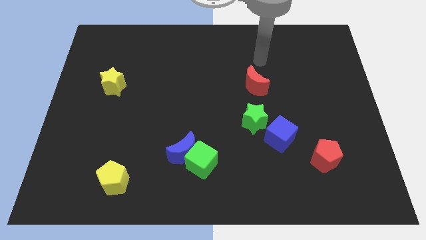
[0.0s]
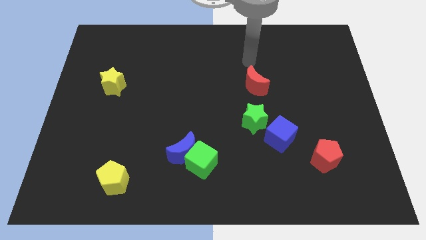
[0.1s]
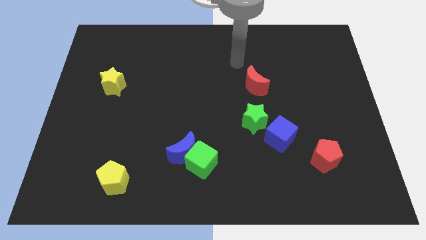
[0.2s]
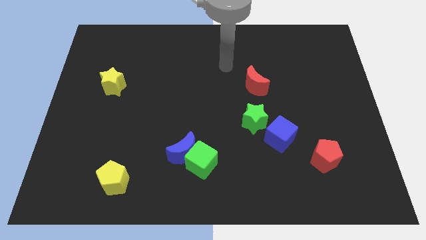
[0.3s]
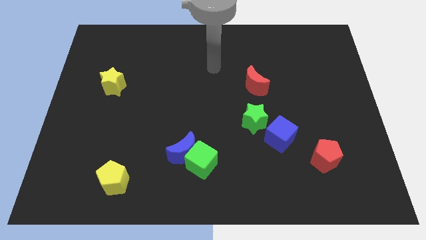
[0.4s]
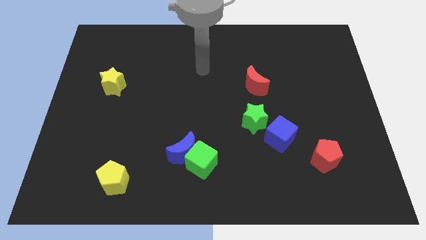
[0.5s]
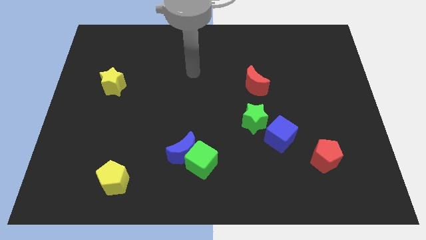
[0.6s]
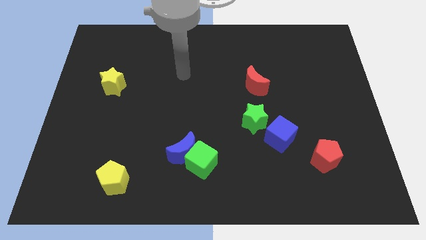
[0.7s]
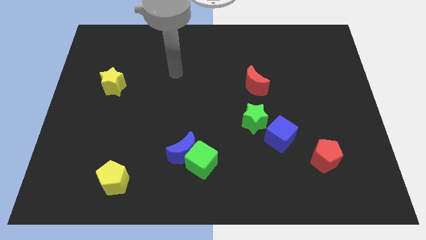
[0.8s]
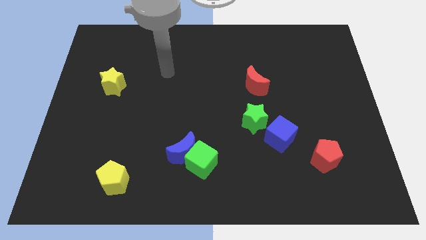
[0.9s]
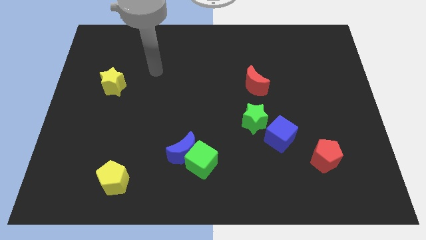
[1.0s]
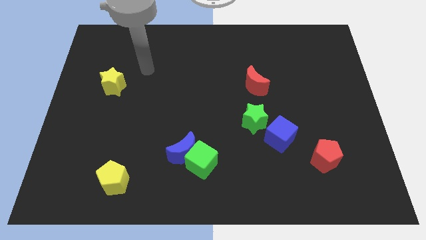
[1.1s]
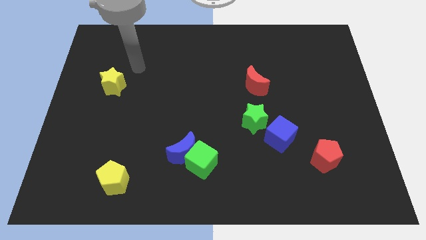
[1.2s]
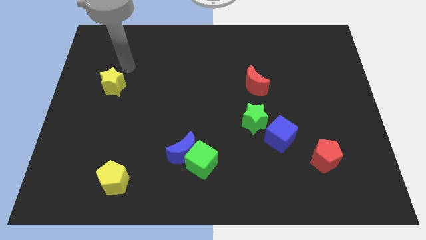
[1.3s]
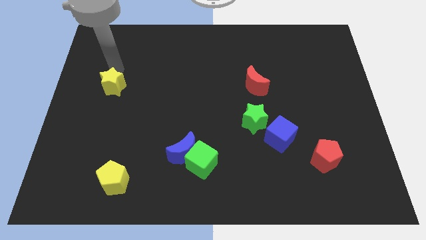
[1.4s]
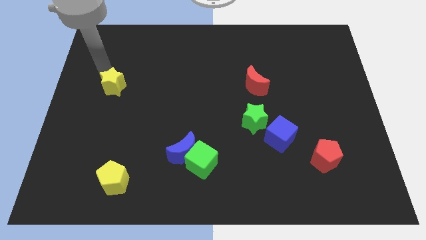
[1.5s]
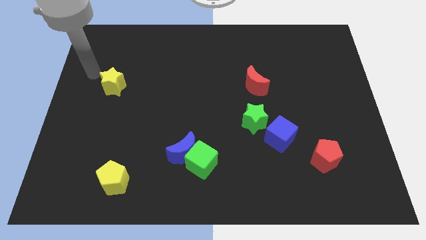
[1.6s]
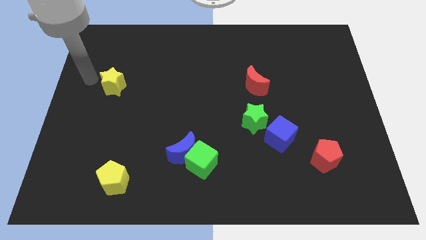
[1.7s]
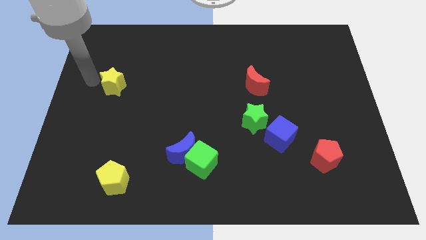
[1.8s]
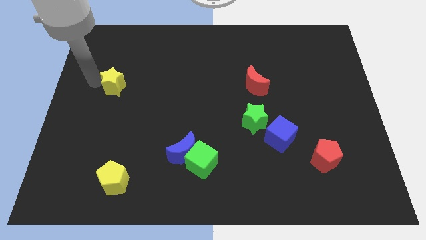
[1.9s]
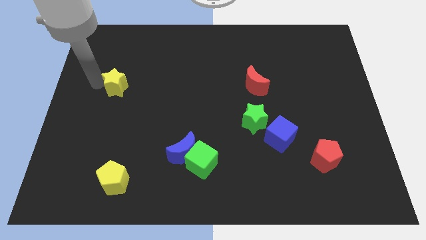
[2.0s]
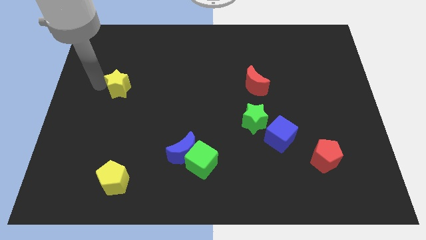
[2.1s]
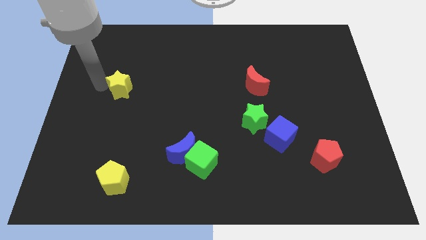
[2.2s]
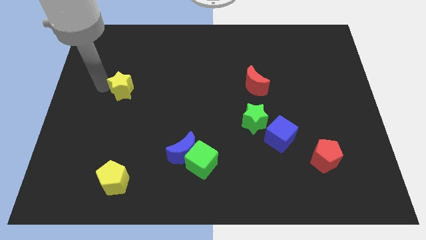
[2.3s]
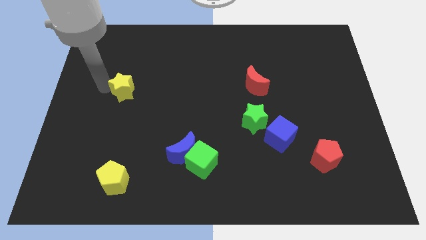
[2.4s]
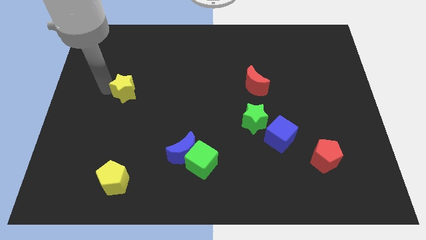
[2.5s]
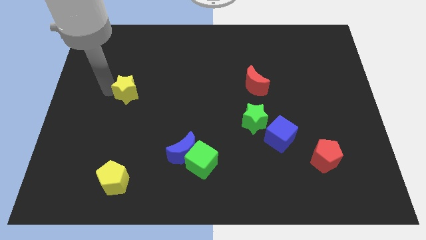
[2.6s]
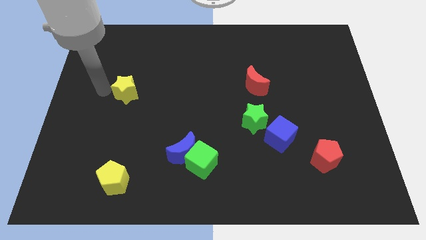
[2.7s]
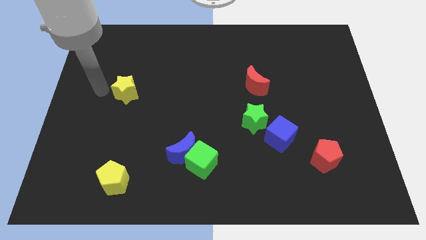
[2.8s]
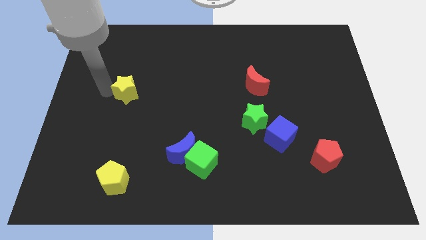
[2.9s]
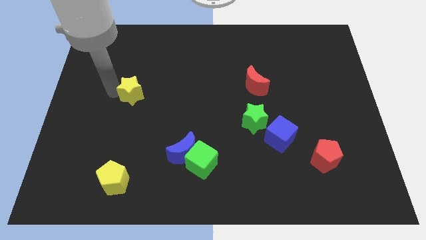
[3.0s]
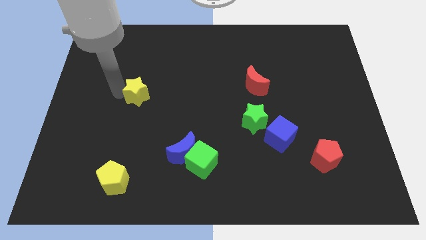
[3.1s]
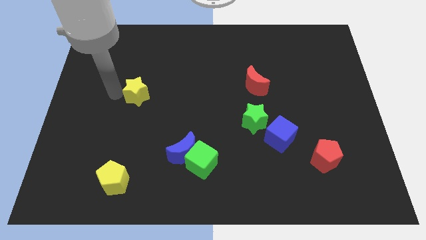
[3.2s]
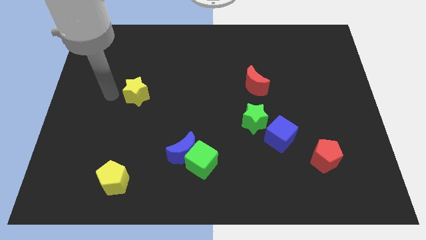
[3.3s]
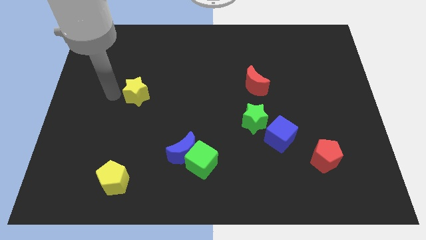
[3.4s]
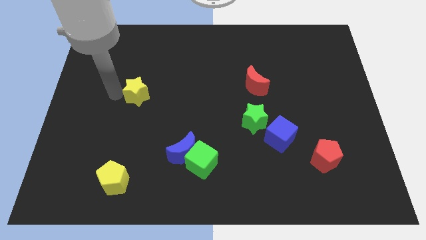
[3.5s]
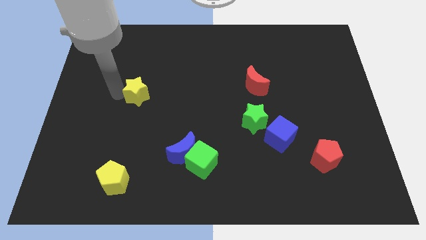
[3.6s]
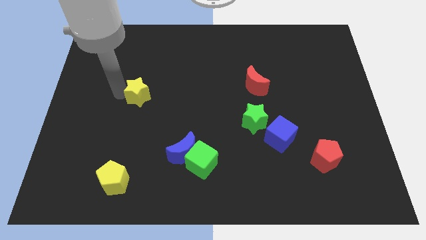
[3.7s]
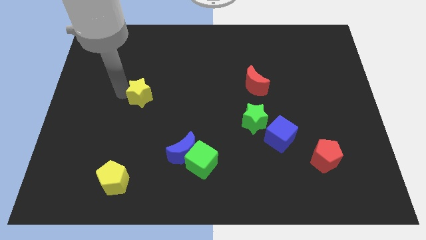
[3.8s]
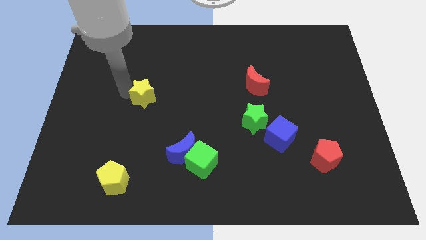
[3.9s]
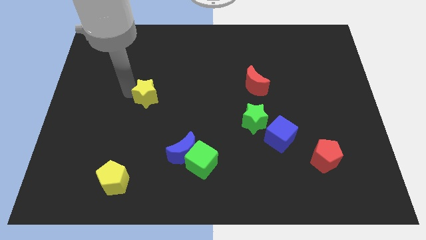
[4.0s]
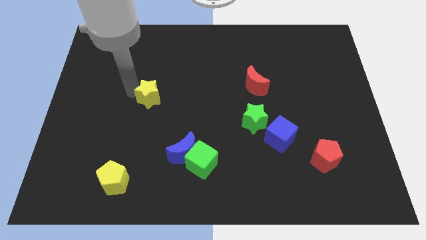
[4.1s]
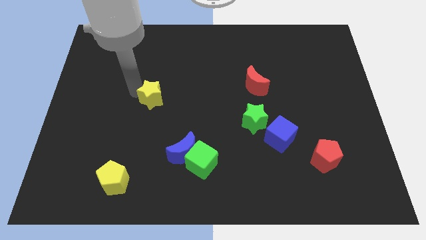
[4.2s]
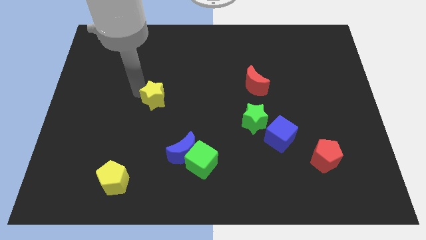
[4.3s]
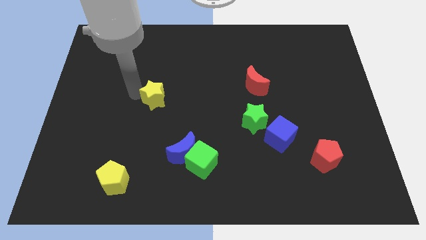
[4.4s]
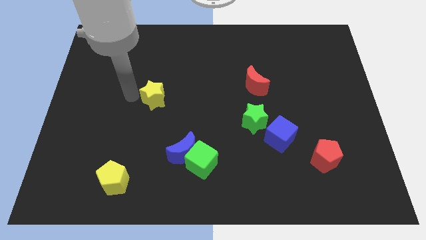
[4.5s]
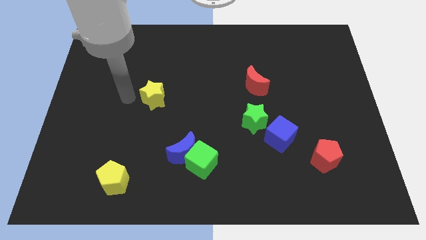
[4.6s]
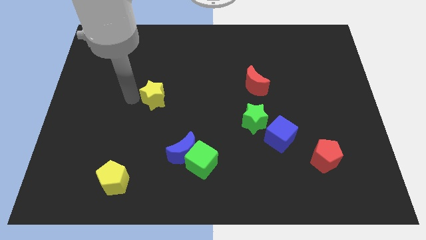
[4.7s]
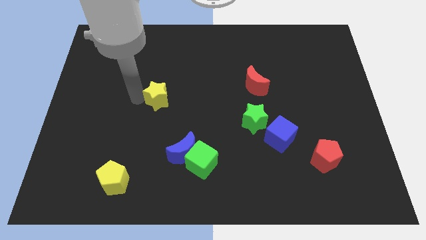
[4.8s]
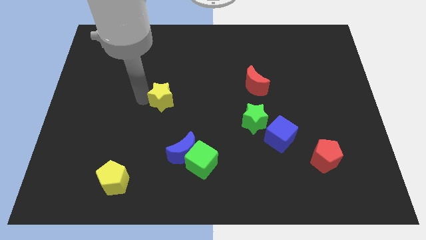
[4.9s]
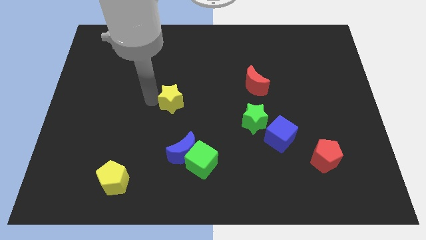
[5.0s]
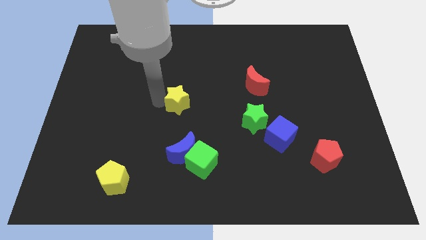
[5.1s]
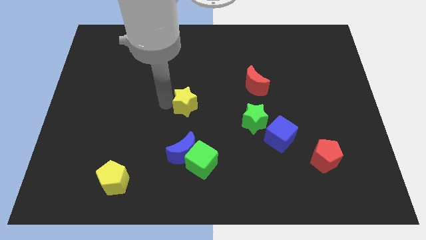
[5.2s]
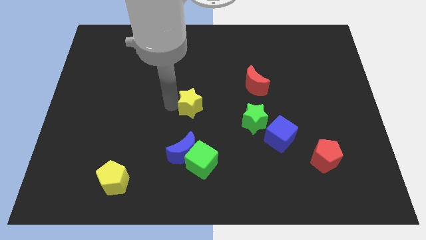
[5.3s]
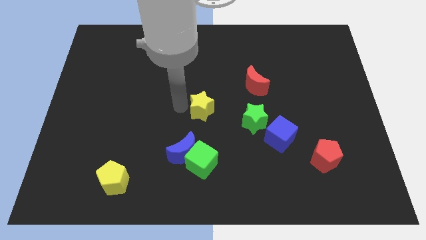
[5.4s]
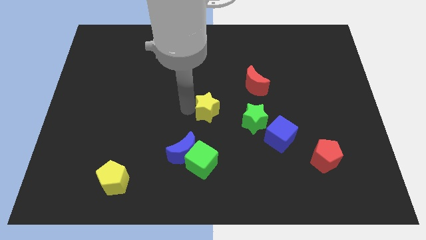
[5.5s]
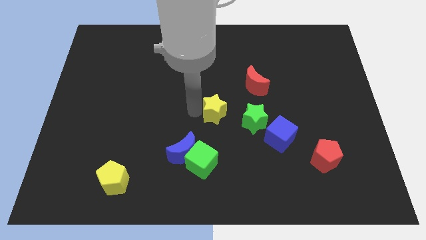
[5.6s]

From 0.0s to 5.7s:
push the yellow star diagonally up and to the left of the green star

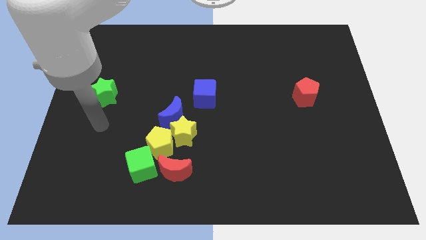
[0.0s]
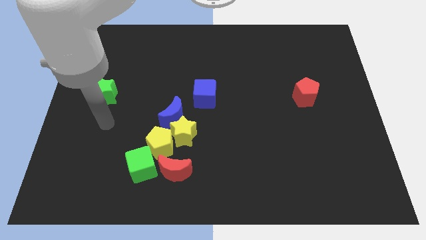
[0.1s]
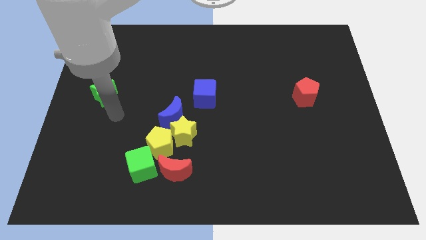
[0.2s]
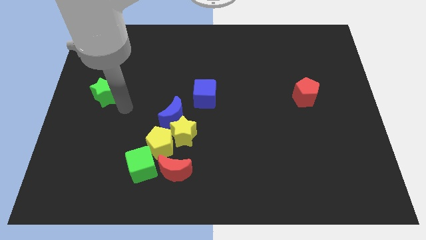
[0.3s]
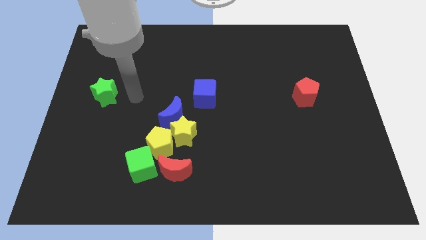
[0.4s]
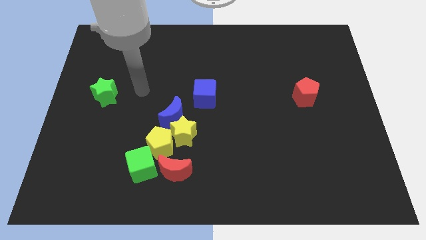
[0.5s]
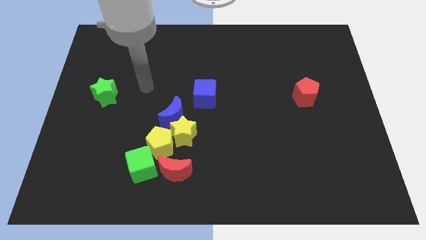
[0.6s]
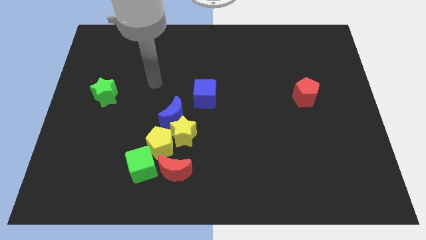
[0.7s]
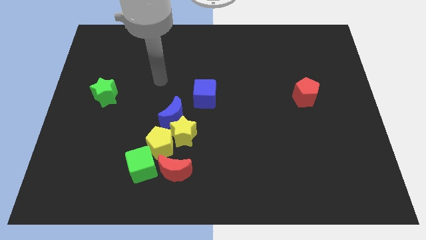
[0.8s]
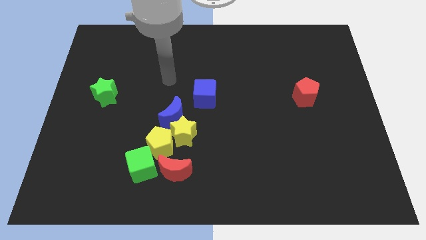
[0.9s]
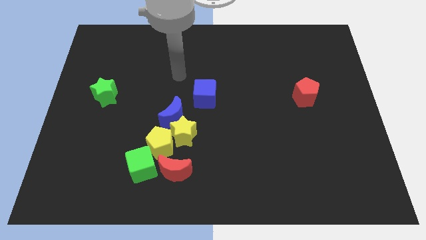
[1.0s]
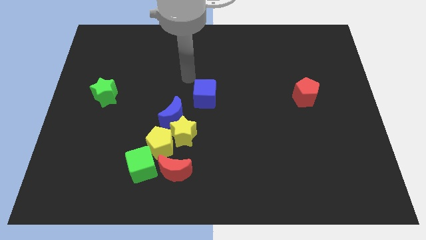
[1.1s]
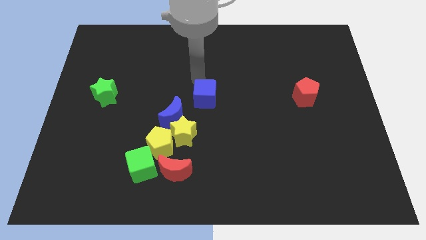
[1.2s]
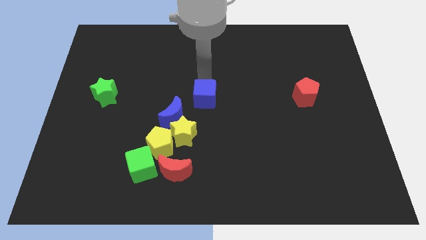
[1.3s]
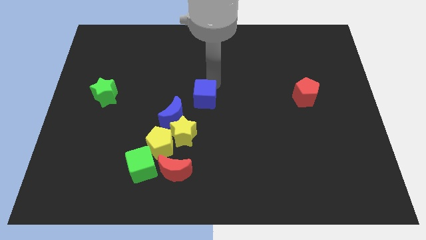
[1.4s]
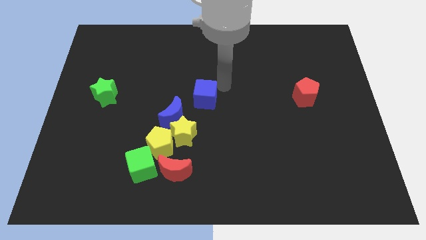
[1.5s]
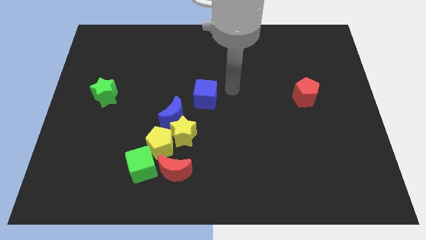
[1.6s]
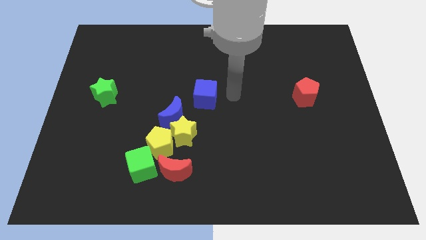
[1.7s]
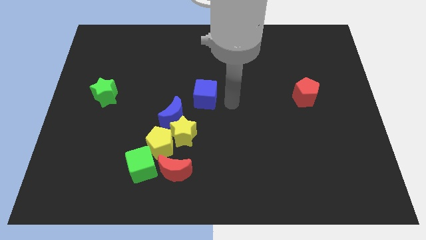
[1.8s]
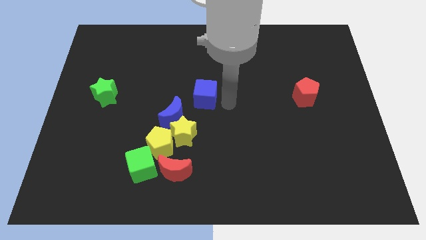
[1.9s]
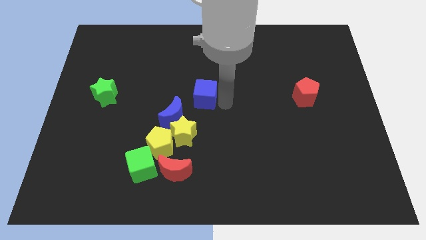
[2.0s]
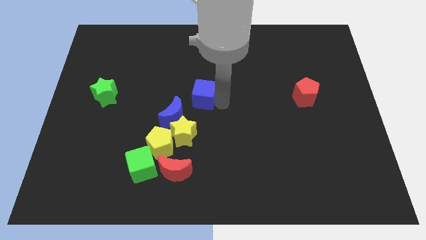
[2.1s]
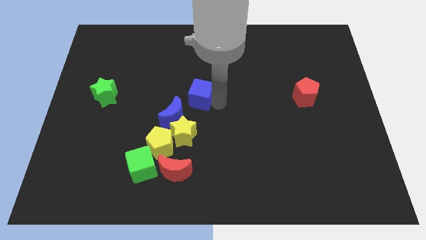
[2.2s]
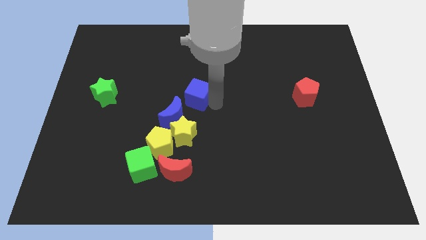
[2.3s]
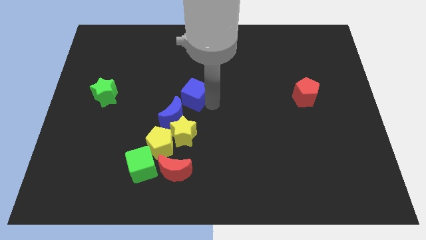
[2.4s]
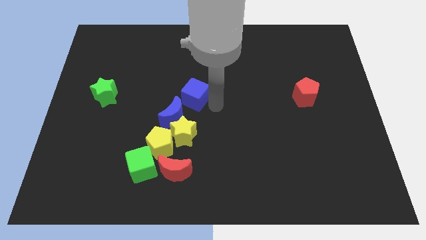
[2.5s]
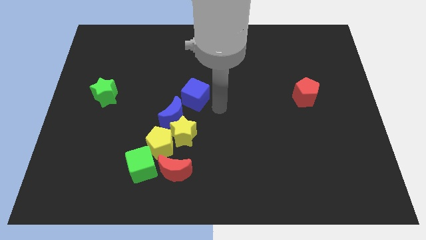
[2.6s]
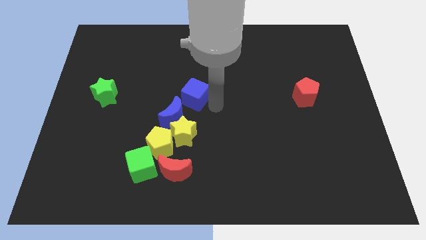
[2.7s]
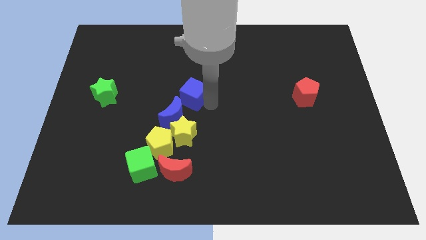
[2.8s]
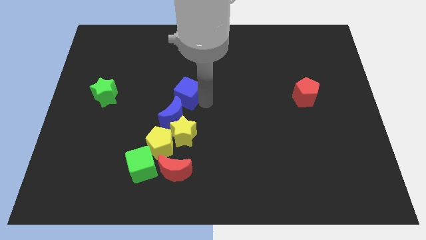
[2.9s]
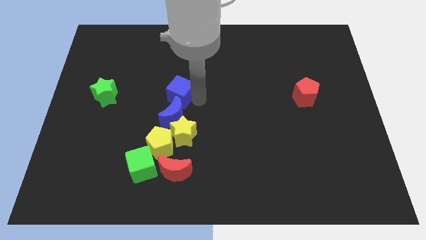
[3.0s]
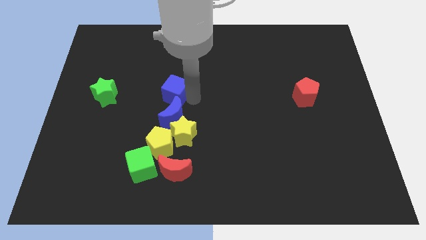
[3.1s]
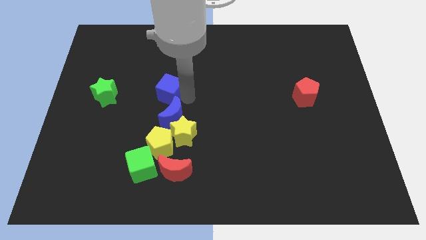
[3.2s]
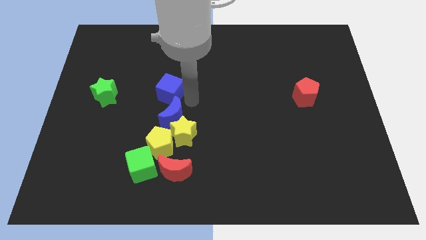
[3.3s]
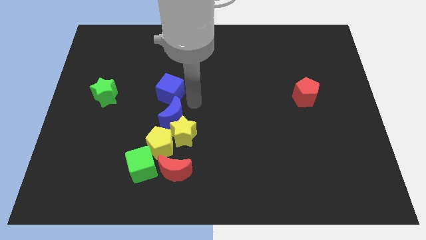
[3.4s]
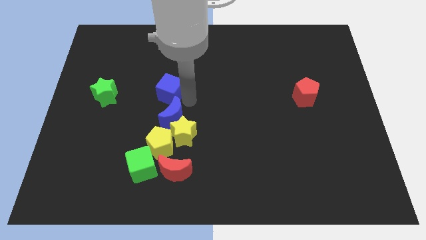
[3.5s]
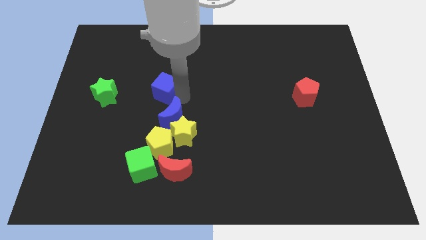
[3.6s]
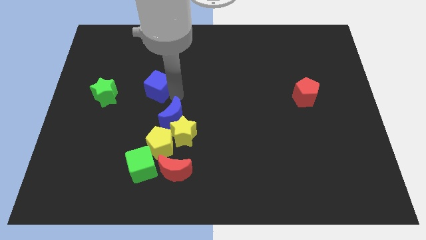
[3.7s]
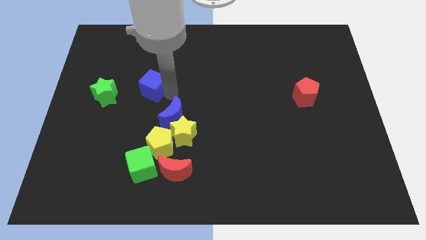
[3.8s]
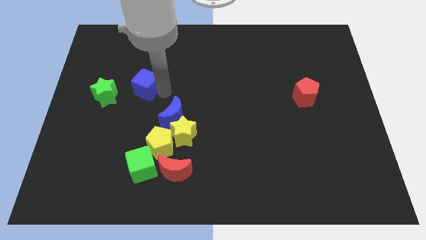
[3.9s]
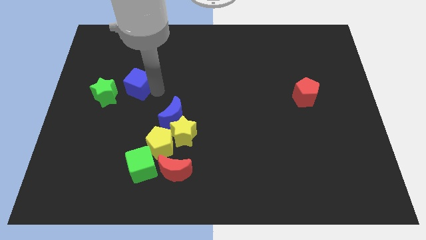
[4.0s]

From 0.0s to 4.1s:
push the blue cube to the top right side of the green star
